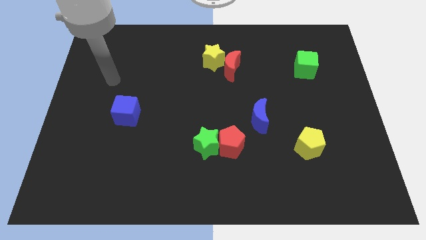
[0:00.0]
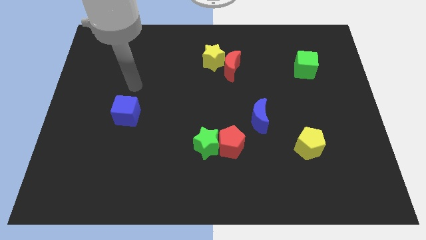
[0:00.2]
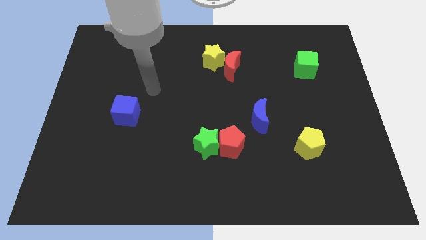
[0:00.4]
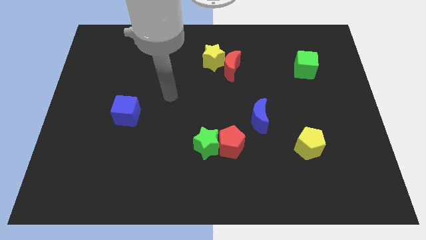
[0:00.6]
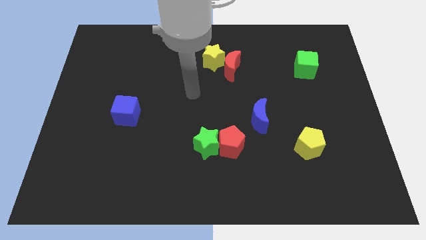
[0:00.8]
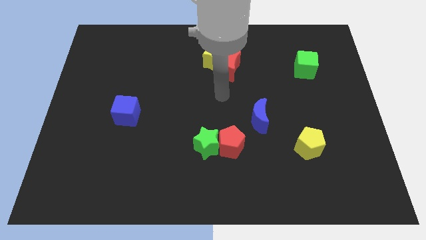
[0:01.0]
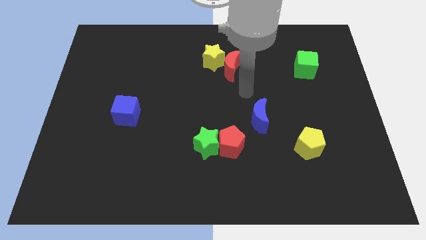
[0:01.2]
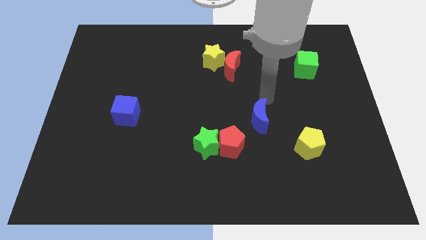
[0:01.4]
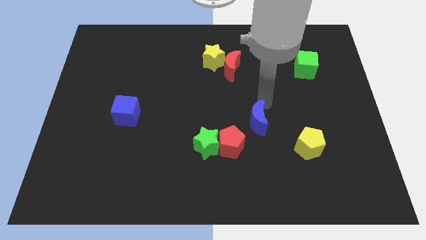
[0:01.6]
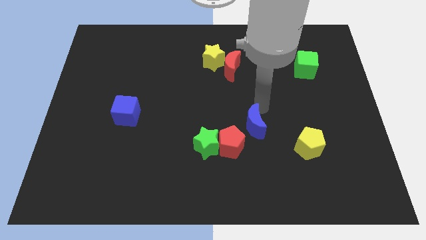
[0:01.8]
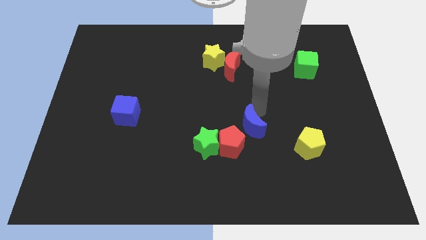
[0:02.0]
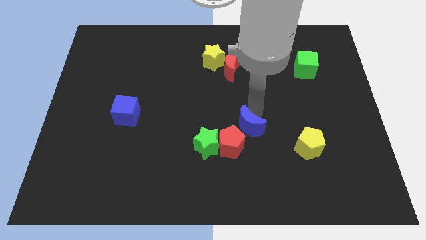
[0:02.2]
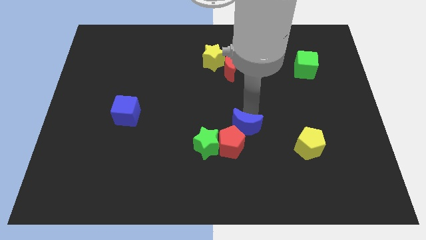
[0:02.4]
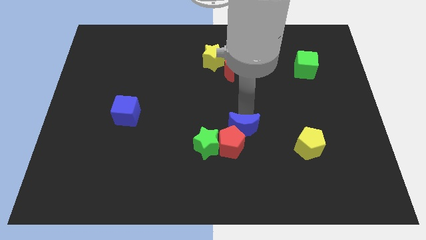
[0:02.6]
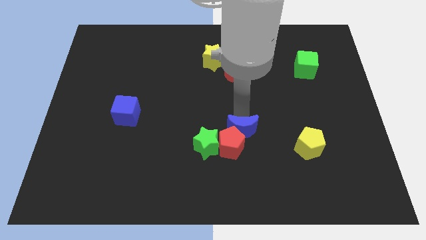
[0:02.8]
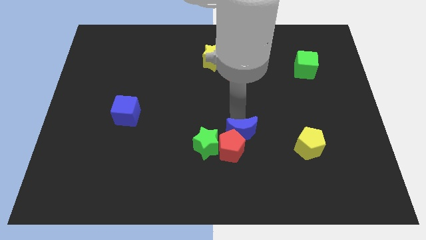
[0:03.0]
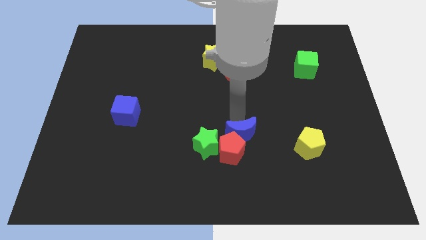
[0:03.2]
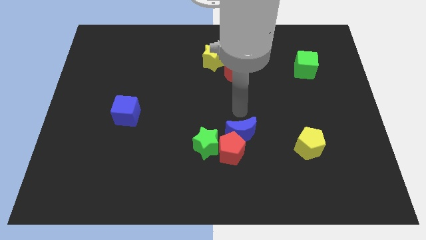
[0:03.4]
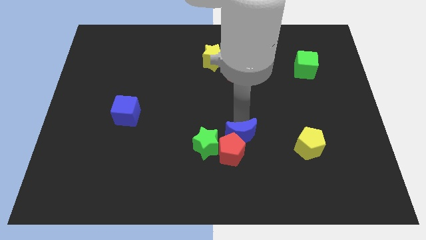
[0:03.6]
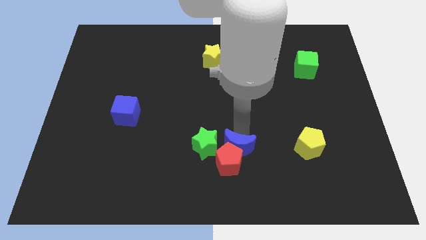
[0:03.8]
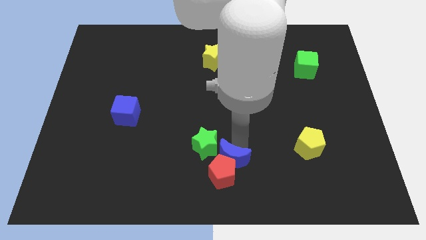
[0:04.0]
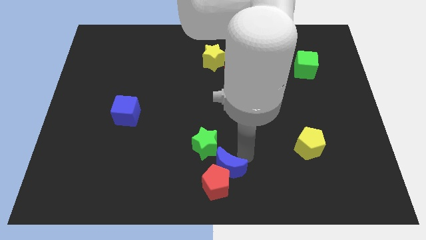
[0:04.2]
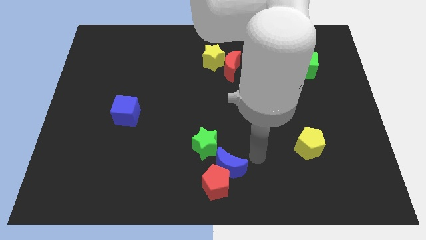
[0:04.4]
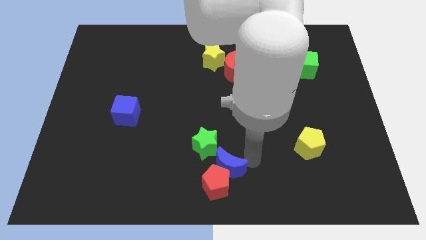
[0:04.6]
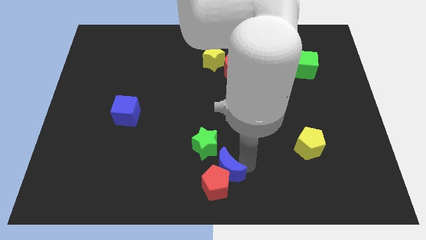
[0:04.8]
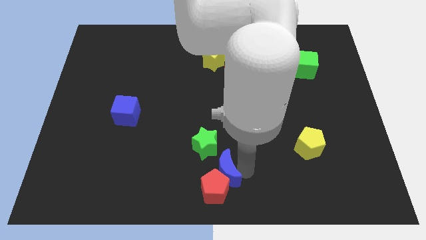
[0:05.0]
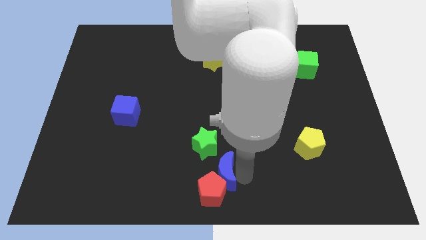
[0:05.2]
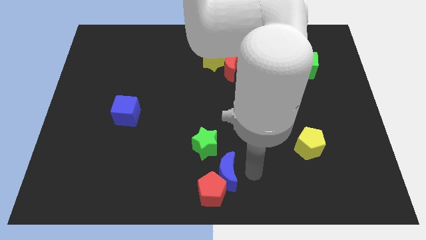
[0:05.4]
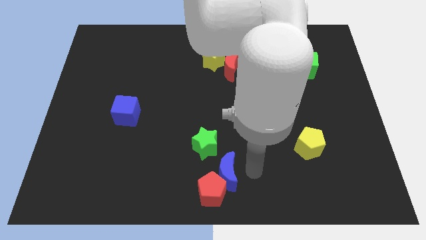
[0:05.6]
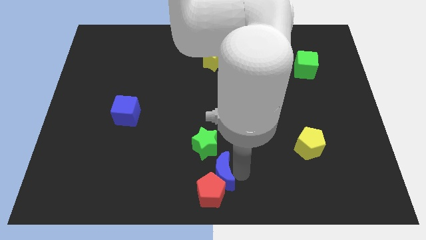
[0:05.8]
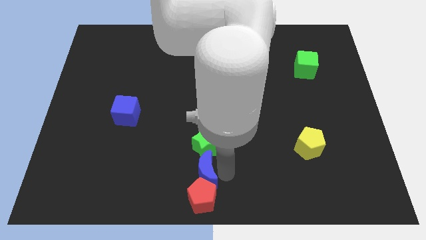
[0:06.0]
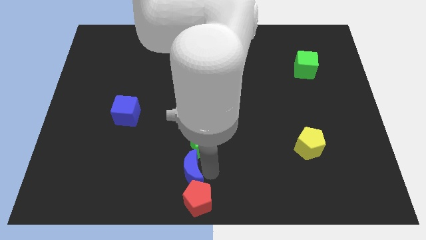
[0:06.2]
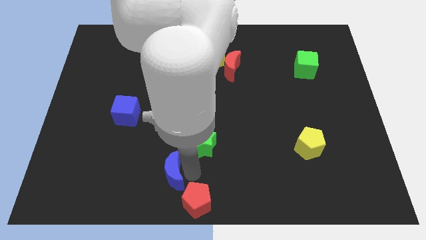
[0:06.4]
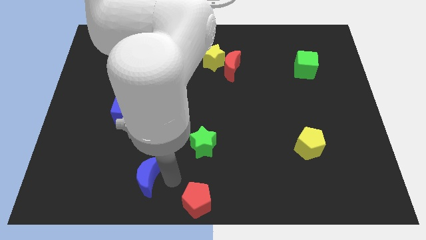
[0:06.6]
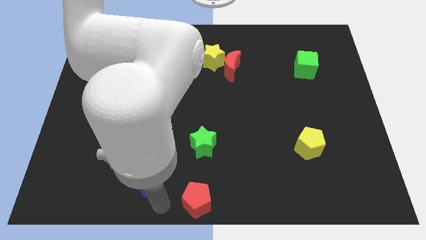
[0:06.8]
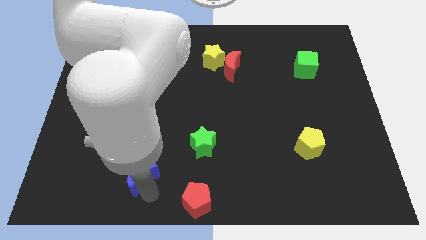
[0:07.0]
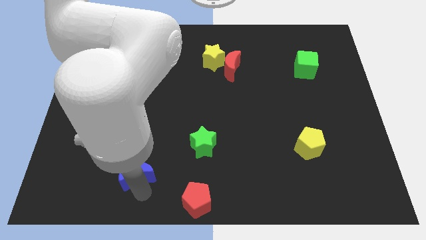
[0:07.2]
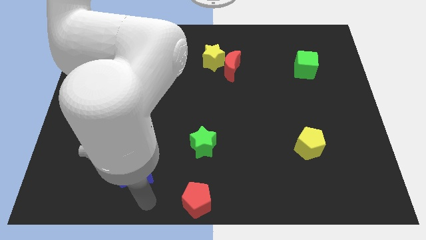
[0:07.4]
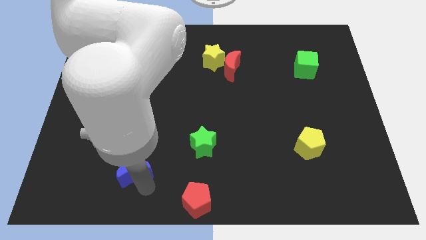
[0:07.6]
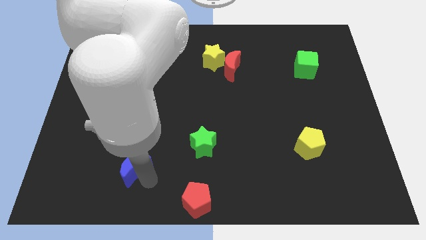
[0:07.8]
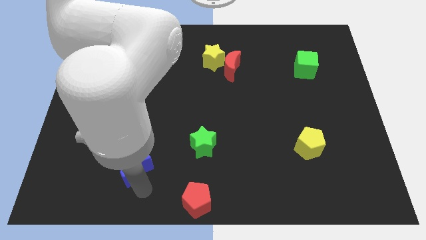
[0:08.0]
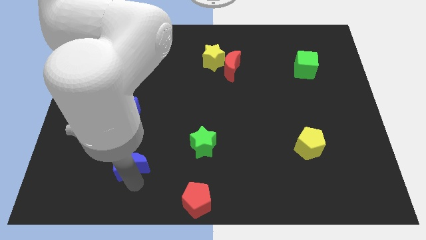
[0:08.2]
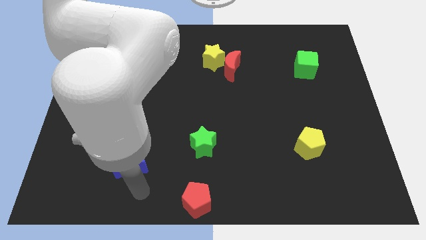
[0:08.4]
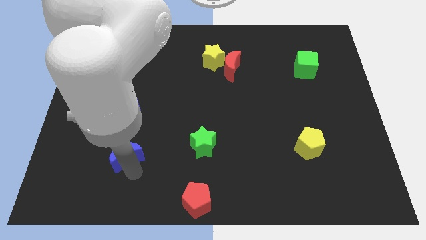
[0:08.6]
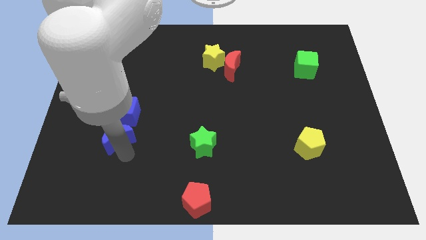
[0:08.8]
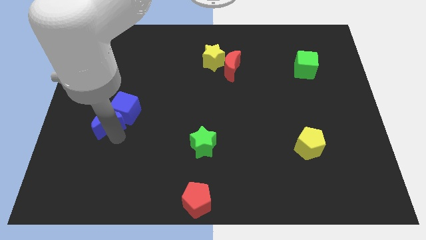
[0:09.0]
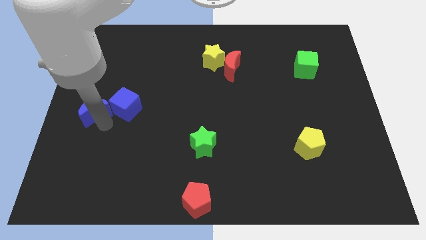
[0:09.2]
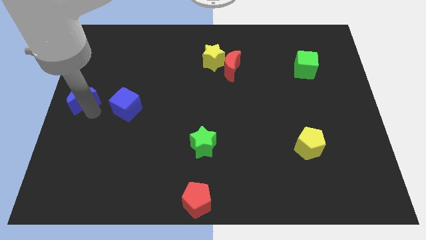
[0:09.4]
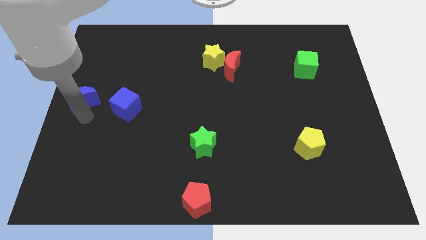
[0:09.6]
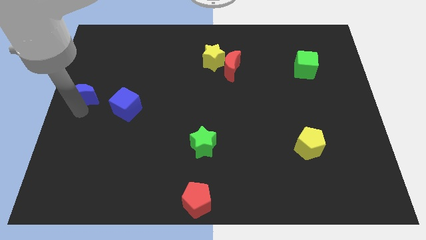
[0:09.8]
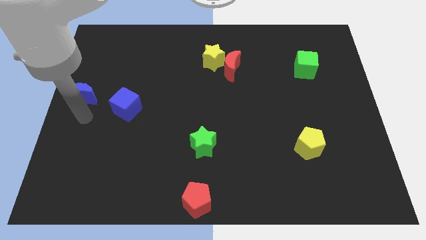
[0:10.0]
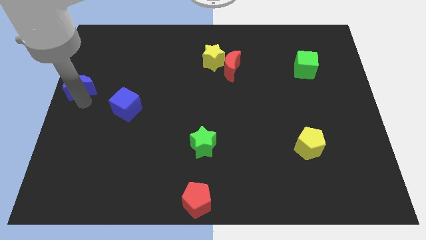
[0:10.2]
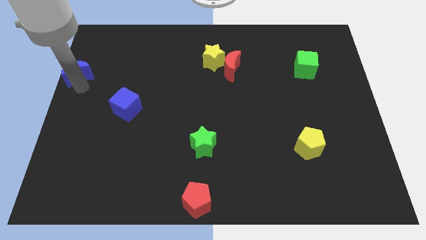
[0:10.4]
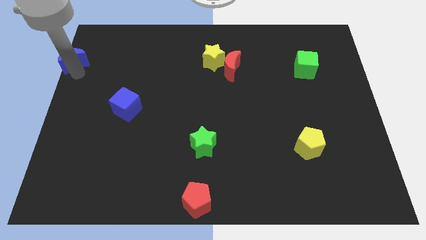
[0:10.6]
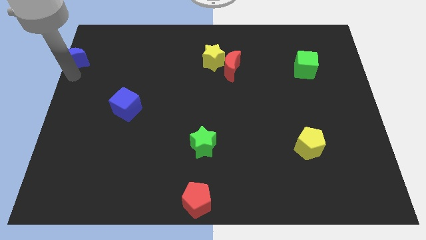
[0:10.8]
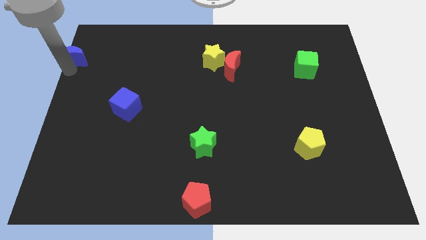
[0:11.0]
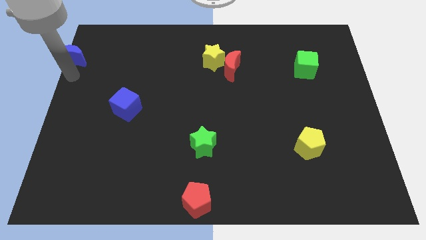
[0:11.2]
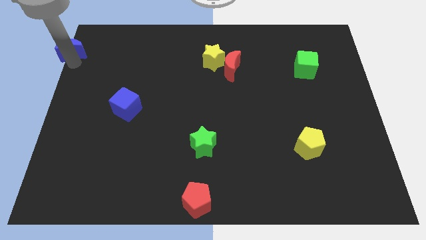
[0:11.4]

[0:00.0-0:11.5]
move the blue moon to the top left of the board

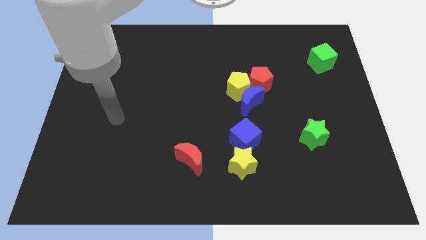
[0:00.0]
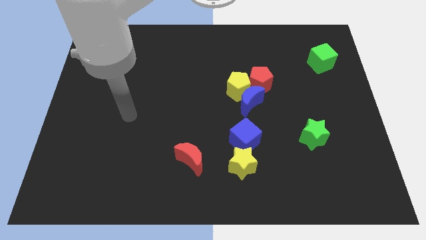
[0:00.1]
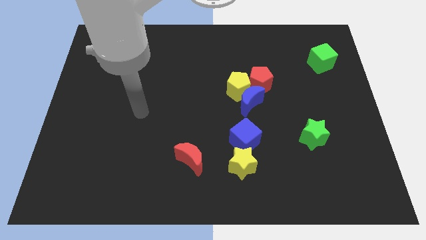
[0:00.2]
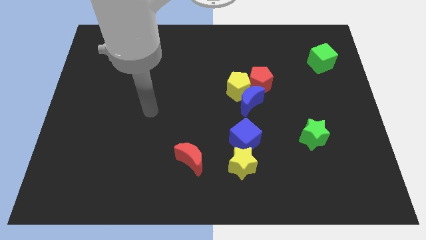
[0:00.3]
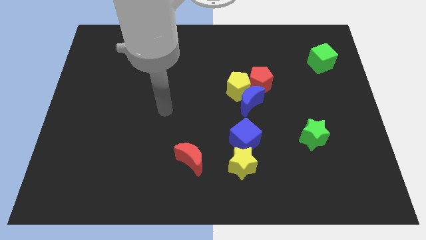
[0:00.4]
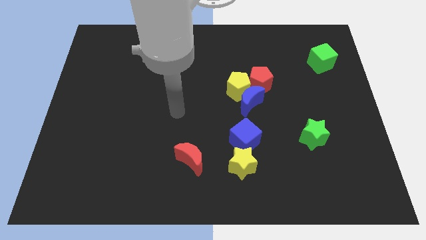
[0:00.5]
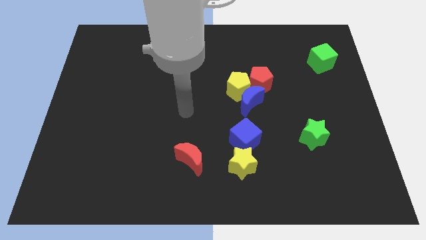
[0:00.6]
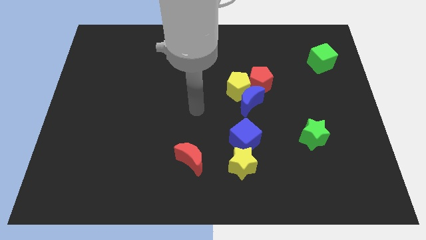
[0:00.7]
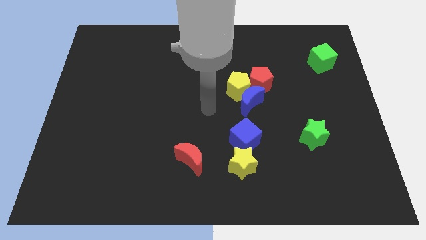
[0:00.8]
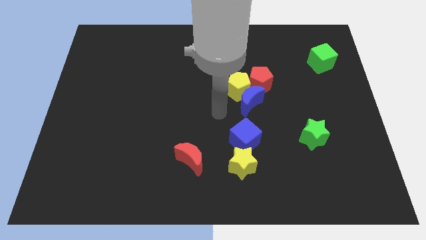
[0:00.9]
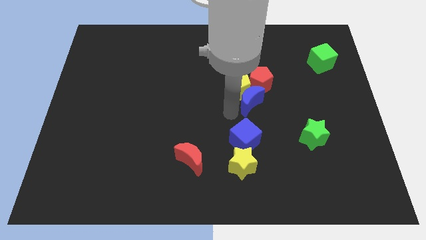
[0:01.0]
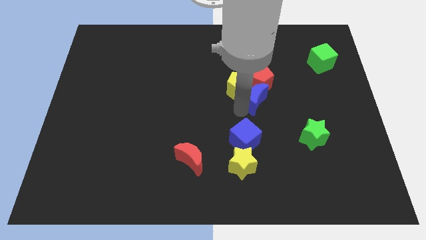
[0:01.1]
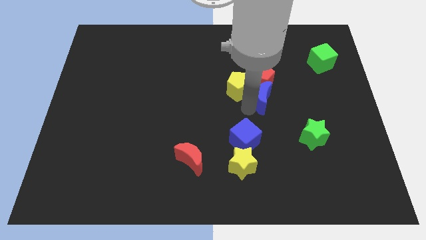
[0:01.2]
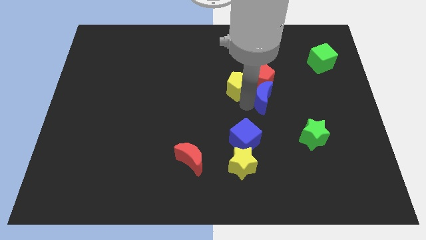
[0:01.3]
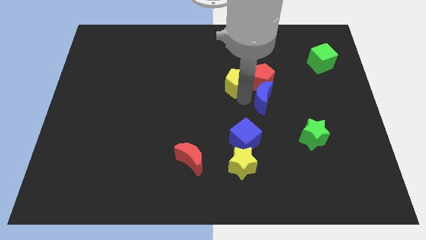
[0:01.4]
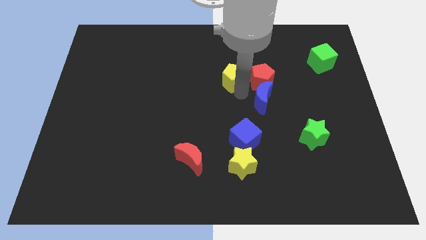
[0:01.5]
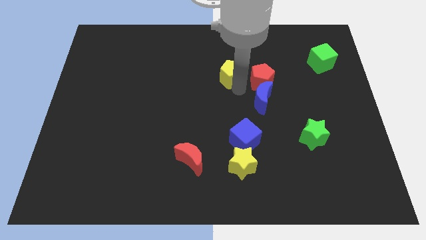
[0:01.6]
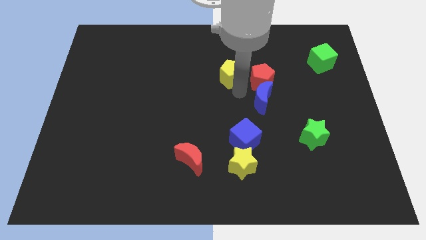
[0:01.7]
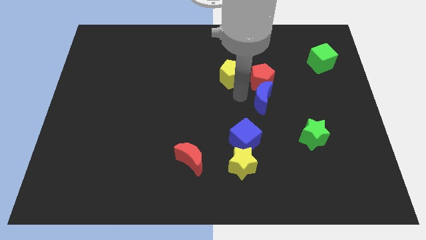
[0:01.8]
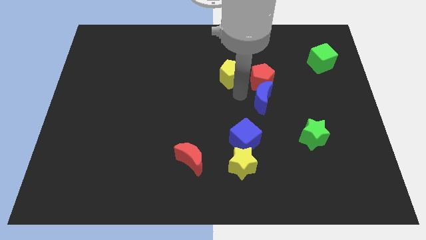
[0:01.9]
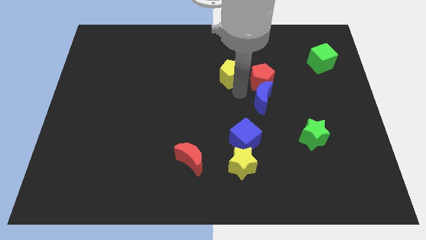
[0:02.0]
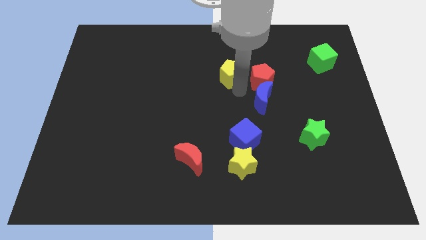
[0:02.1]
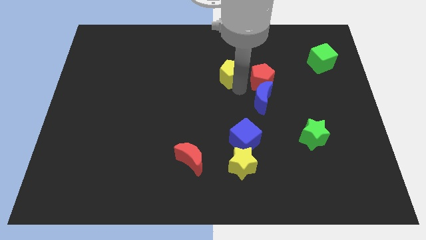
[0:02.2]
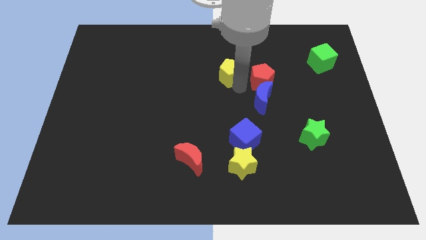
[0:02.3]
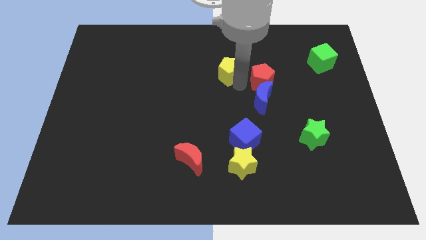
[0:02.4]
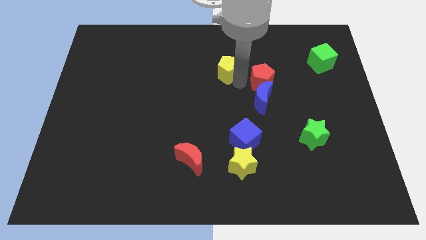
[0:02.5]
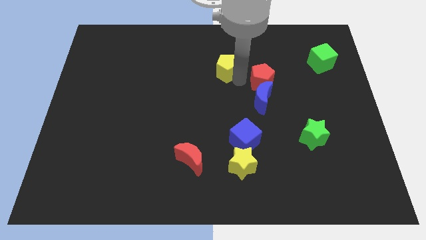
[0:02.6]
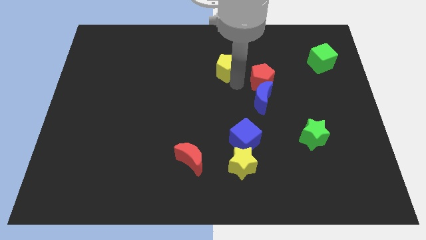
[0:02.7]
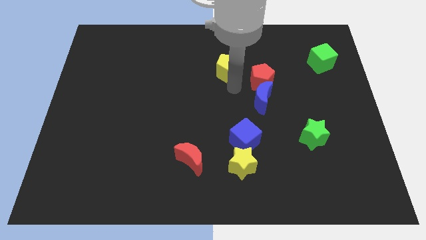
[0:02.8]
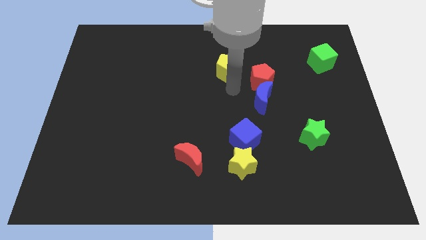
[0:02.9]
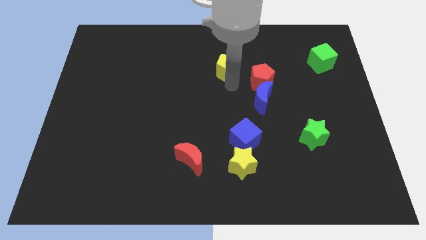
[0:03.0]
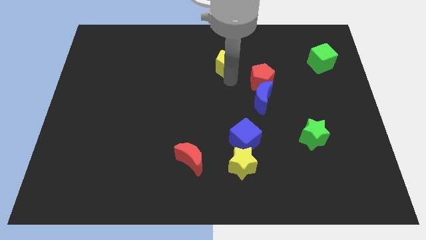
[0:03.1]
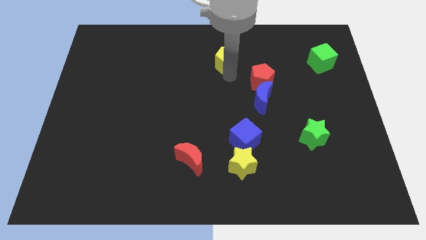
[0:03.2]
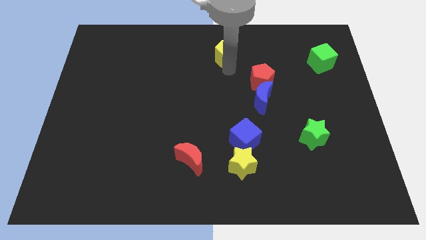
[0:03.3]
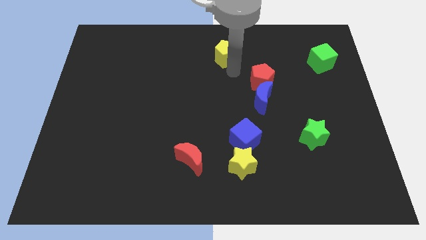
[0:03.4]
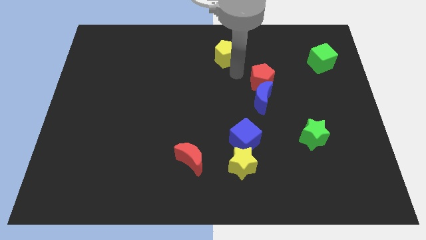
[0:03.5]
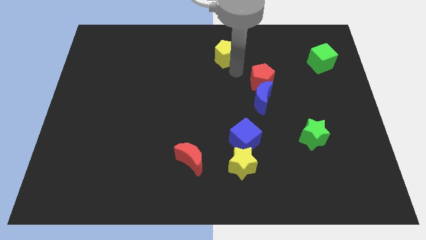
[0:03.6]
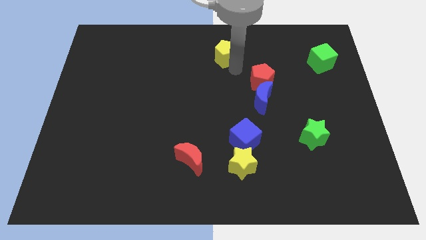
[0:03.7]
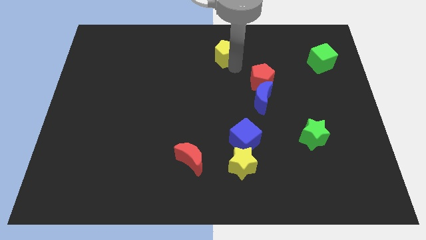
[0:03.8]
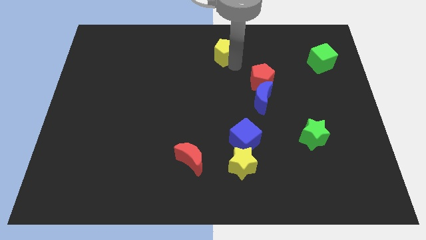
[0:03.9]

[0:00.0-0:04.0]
slide the yellow pentagon to the top
